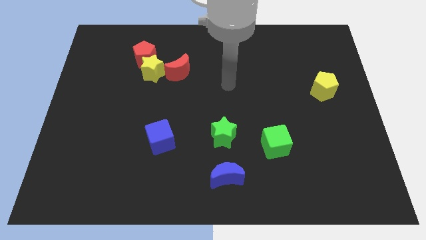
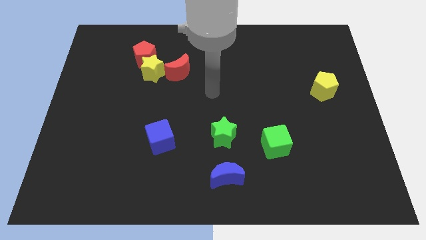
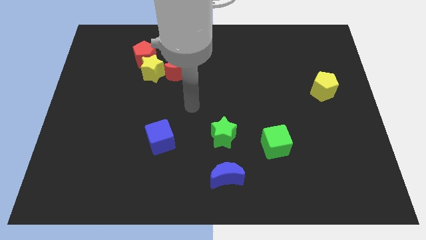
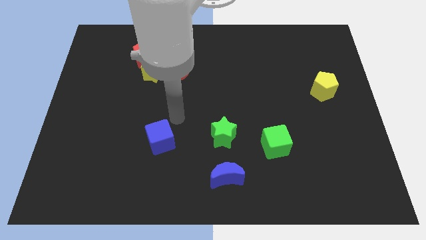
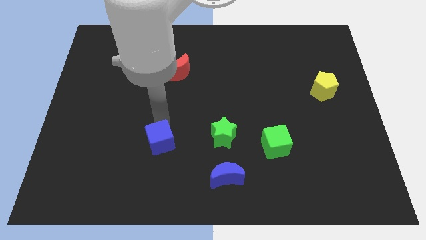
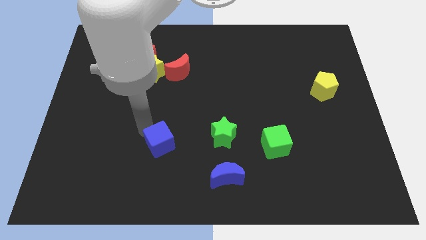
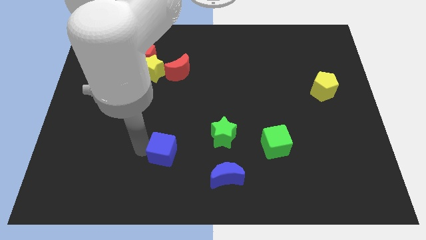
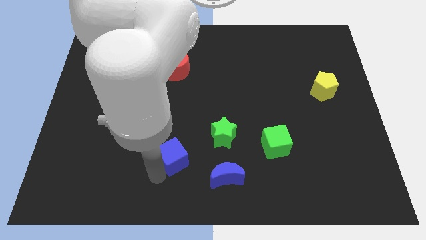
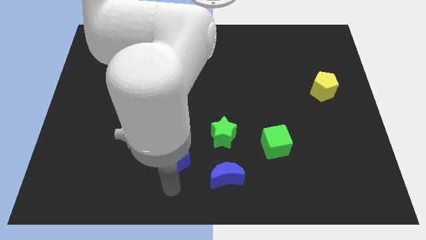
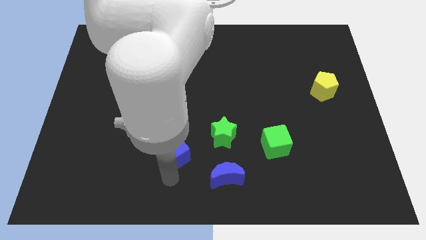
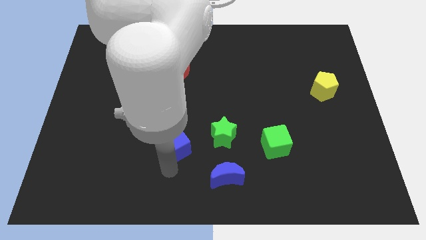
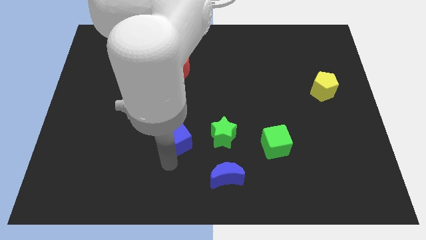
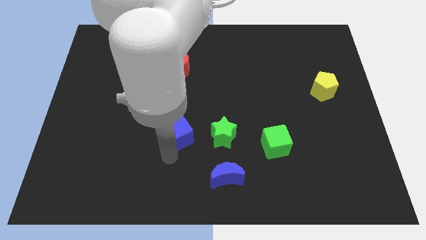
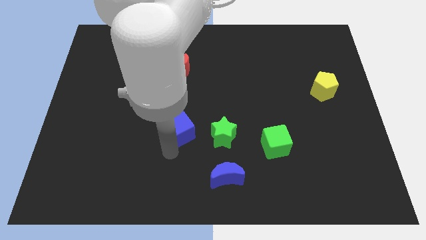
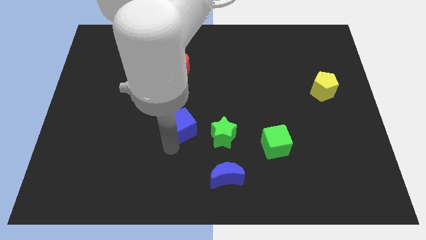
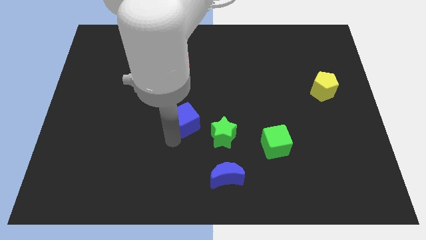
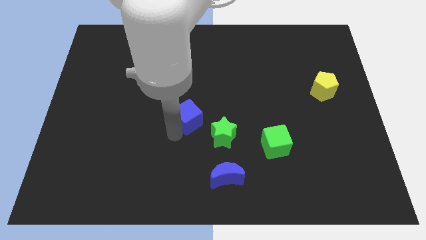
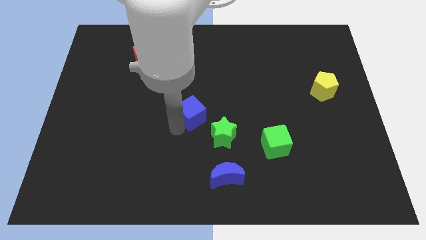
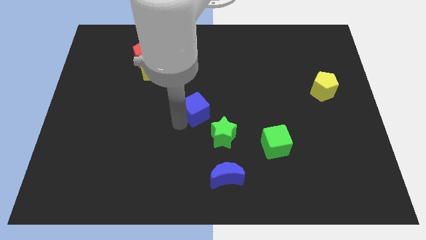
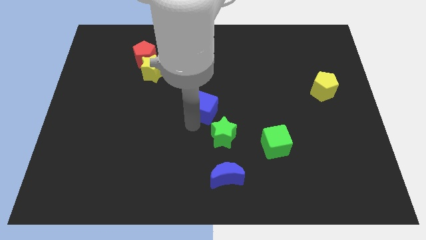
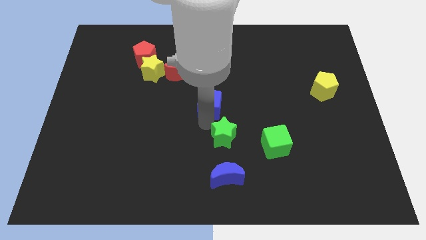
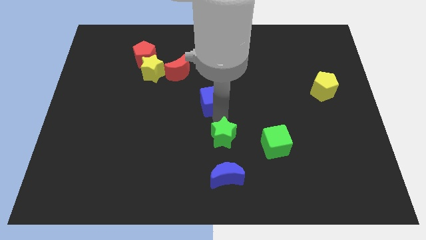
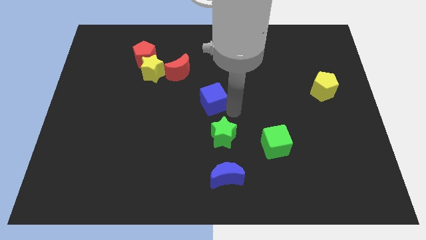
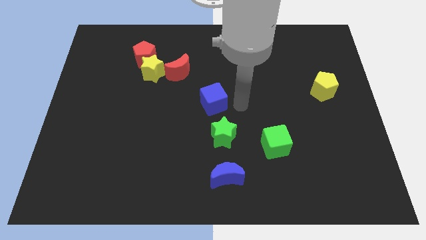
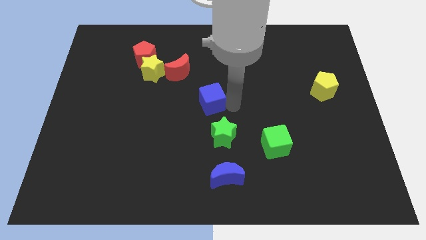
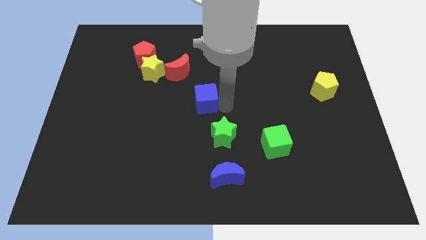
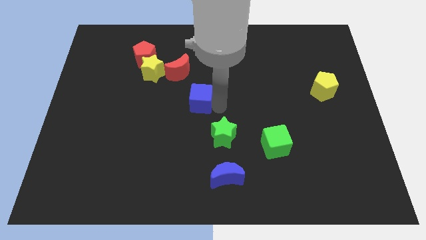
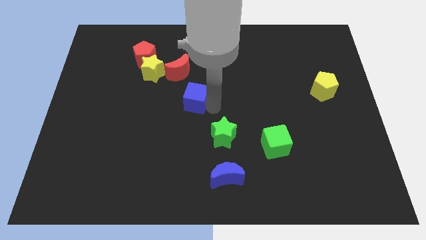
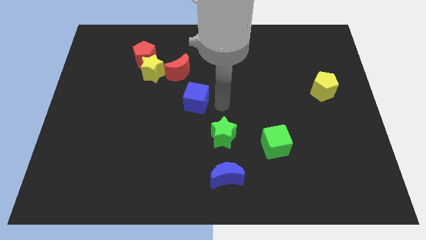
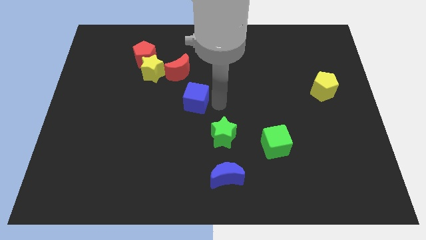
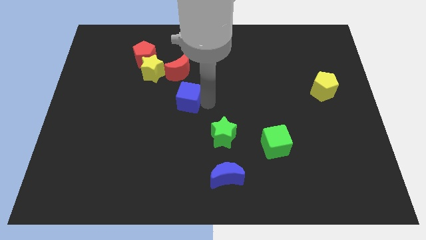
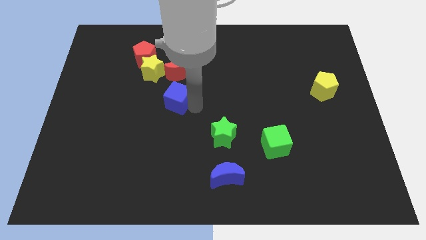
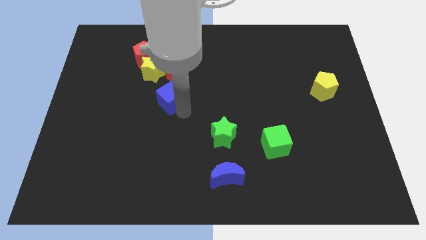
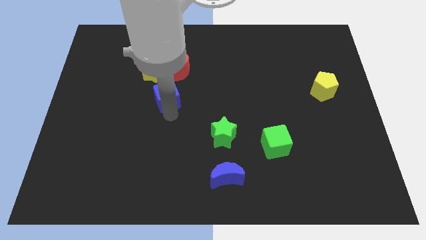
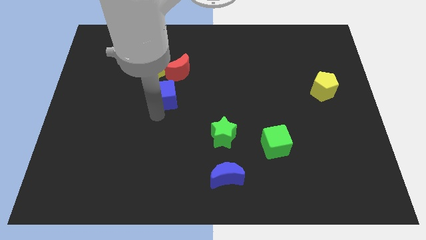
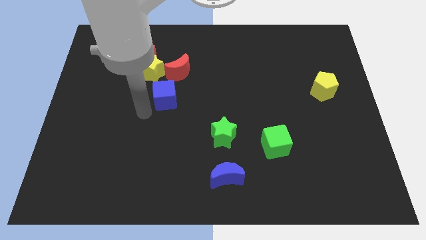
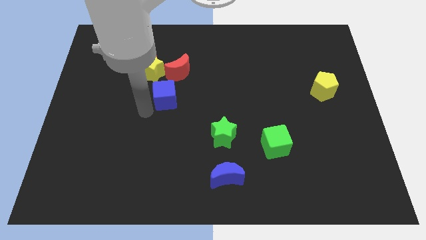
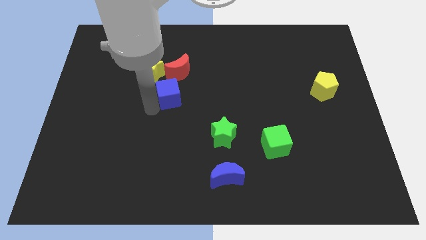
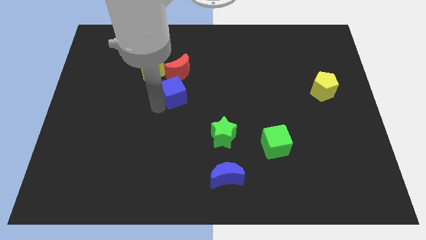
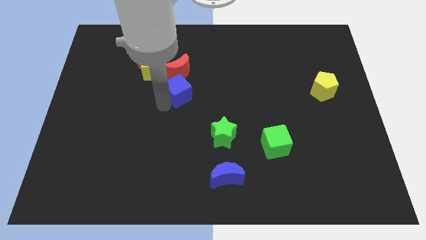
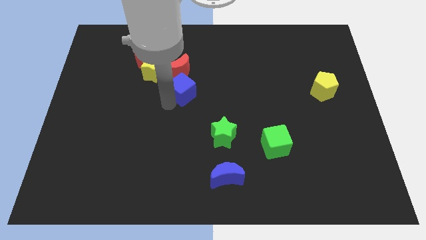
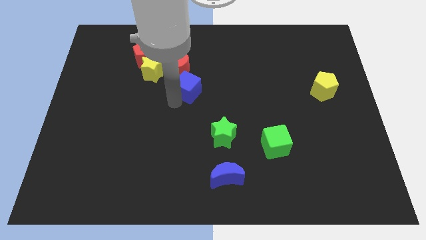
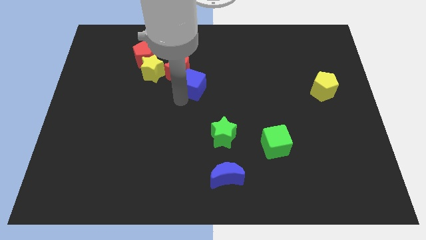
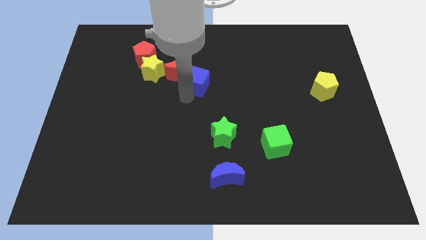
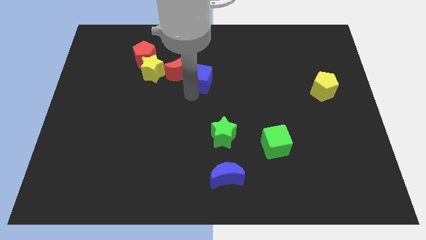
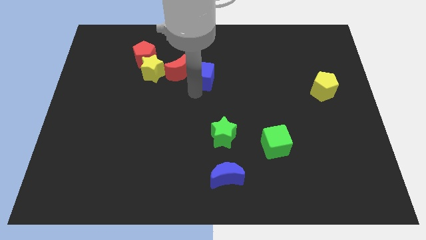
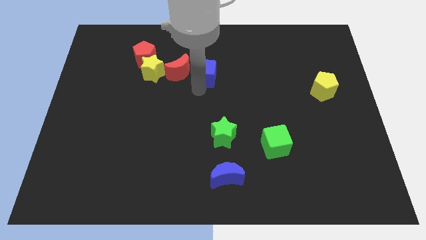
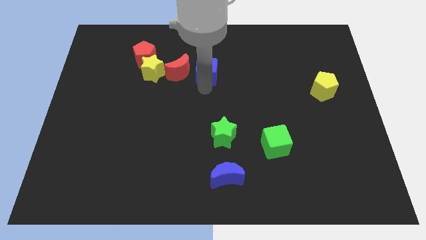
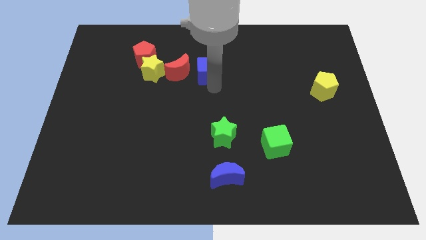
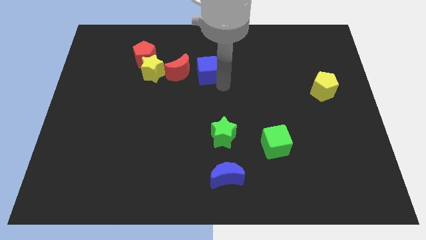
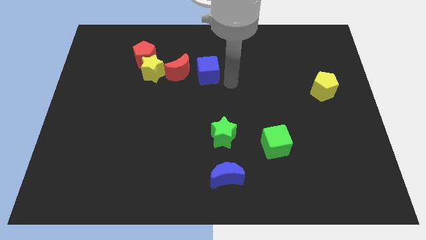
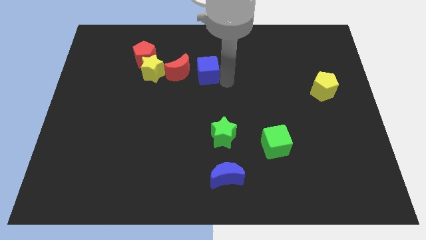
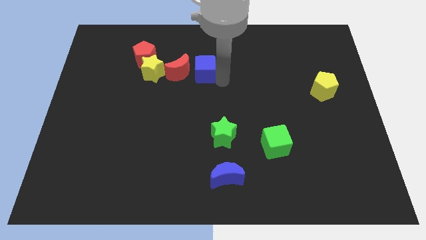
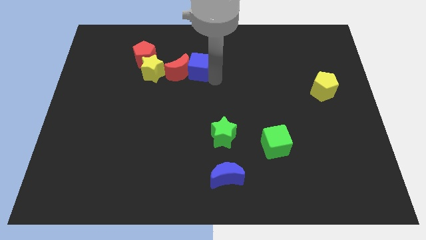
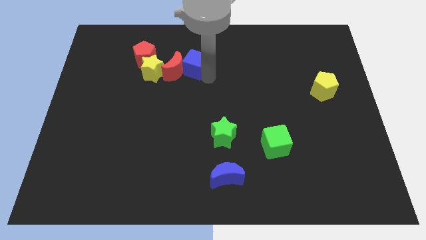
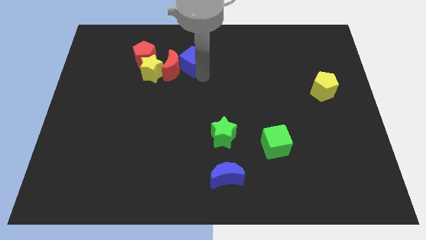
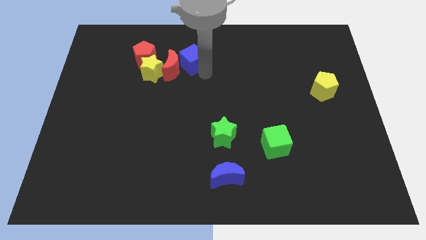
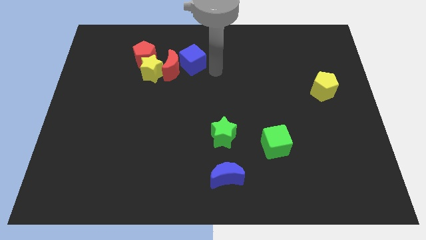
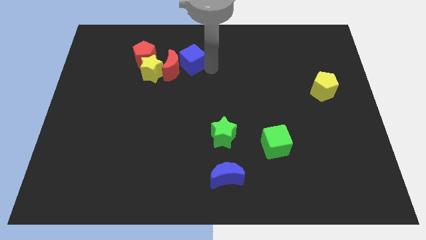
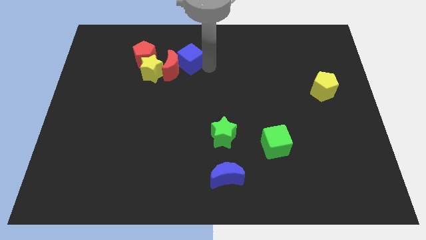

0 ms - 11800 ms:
move the blue cube to the top right of the yellow star

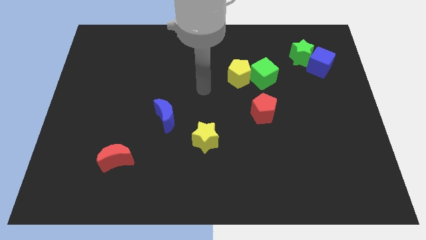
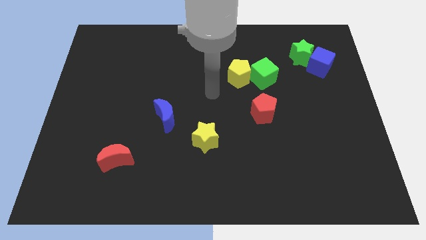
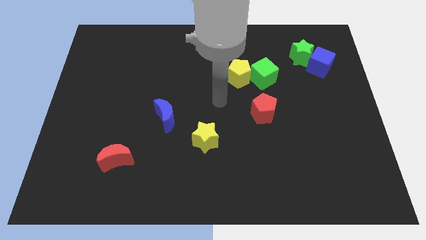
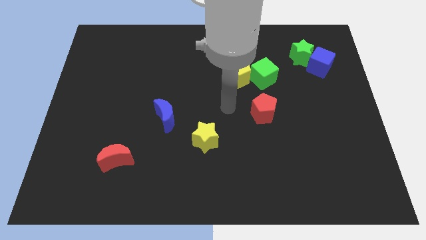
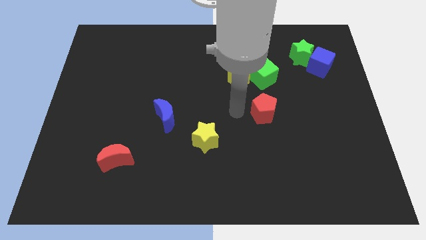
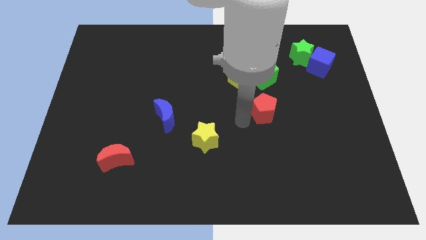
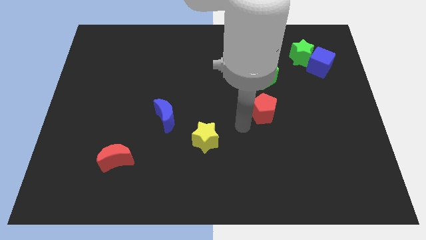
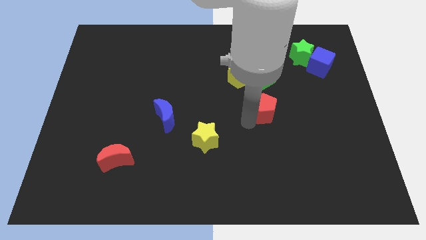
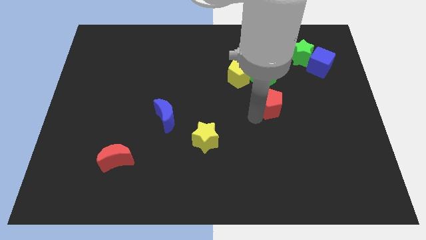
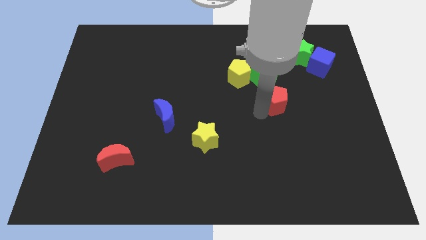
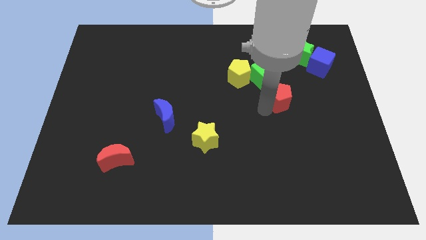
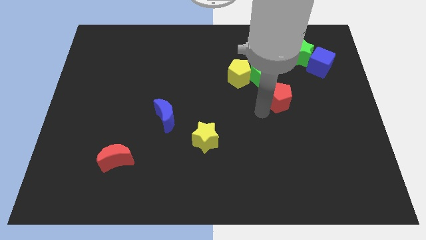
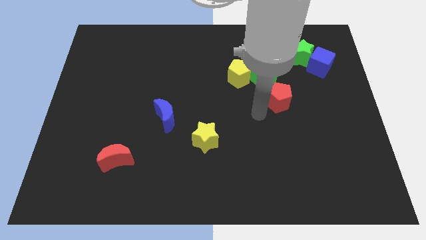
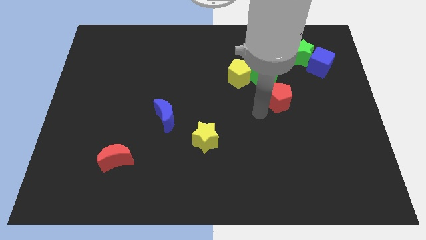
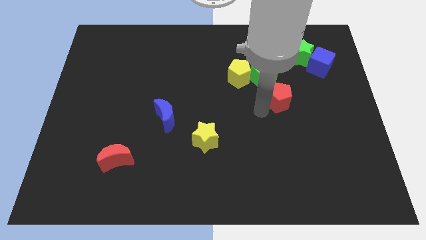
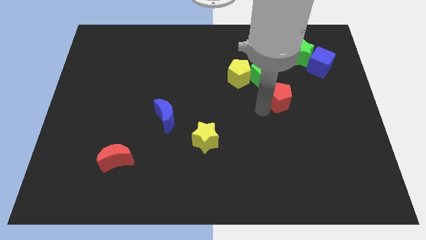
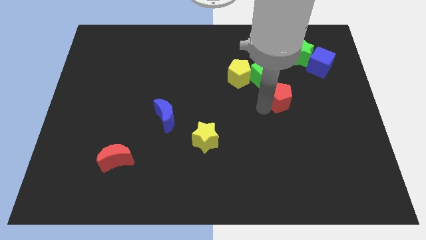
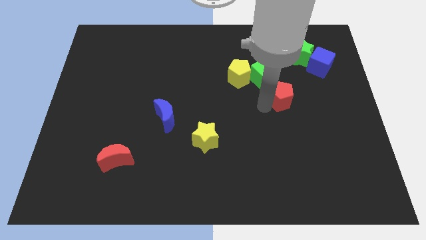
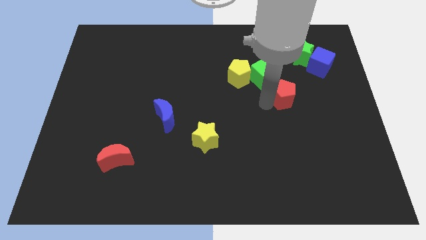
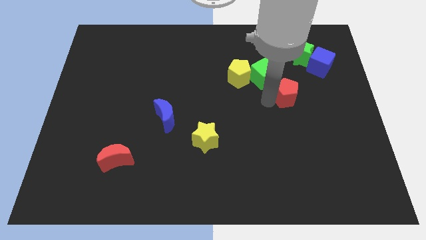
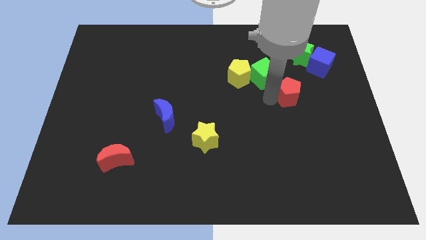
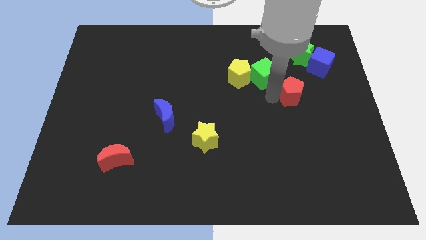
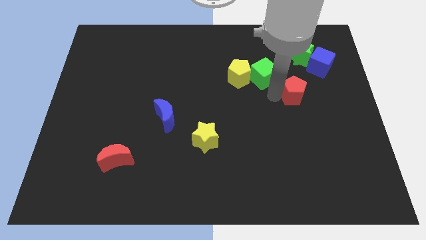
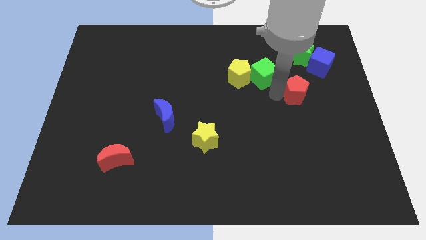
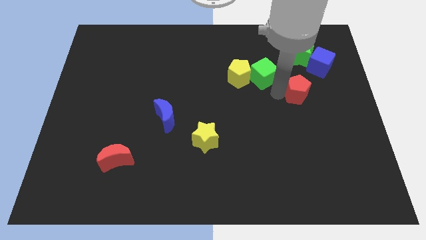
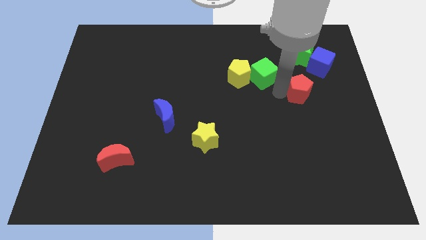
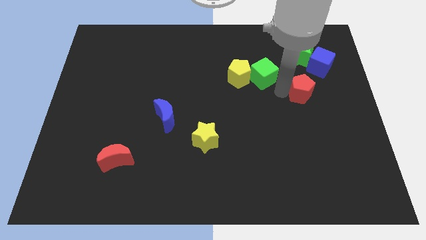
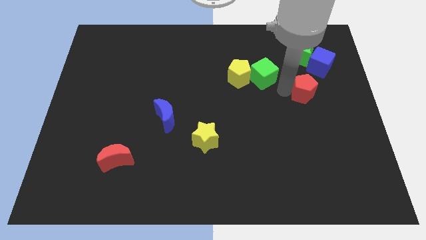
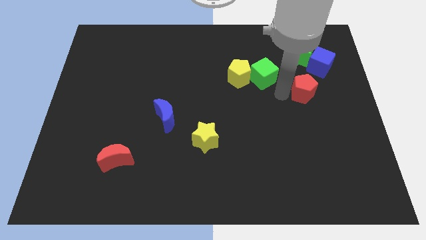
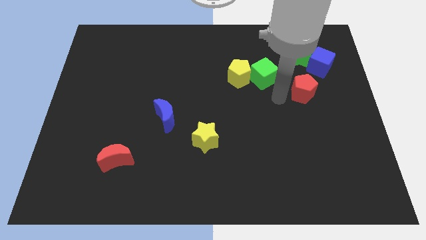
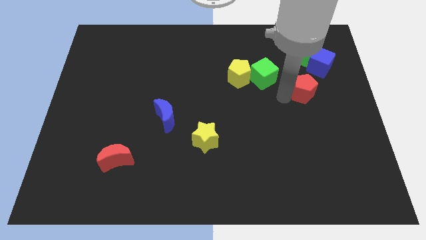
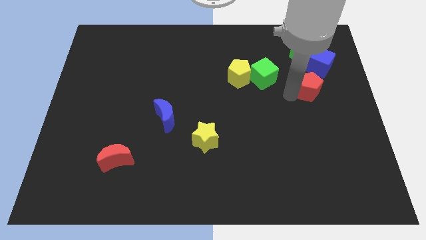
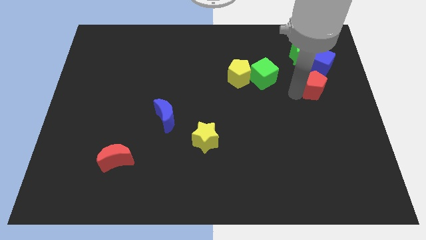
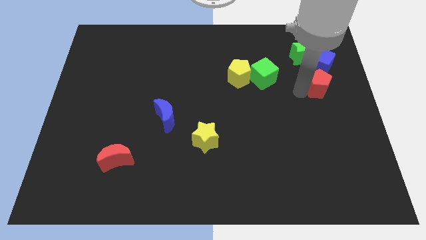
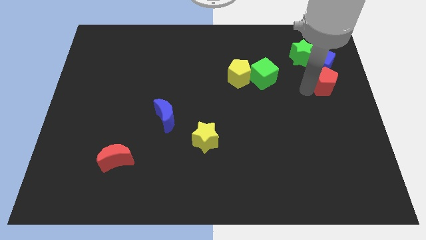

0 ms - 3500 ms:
put the red pentagon to the bottom right of the green star
